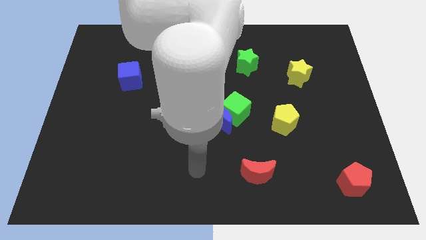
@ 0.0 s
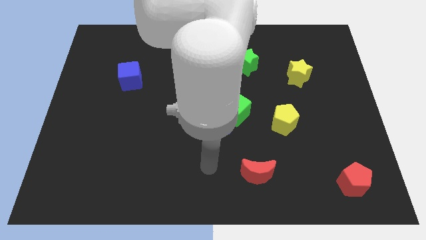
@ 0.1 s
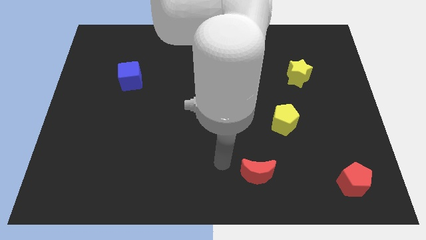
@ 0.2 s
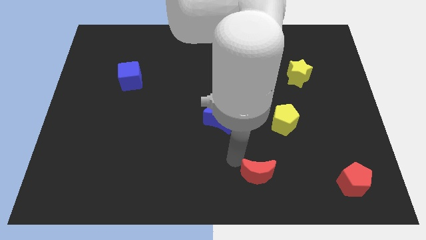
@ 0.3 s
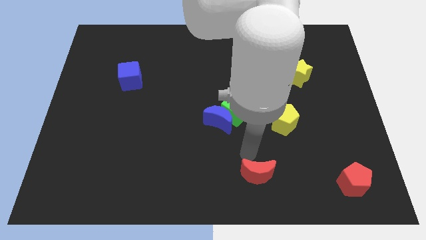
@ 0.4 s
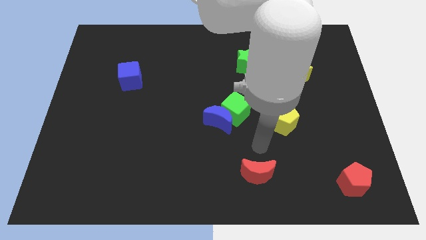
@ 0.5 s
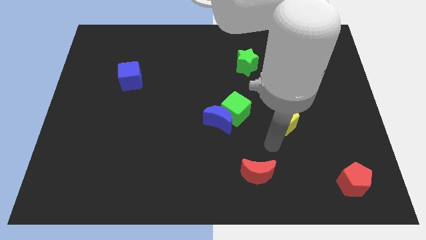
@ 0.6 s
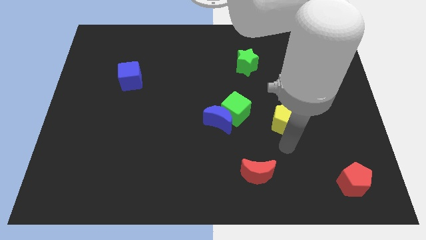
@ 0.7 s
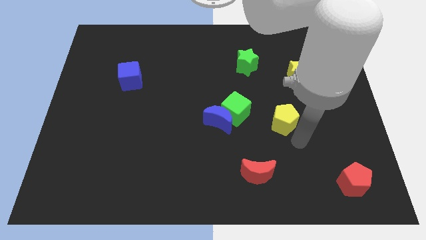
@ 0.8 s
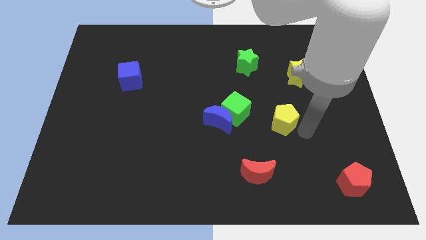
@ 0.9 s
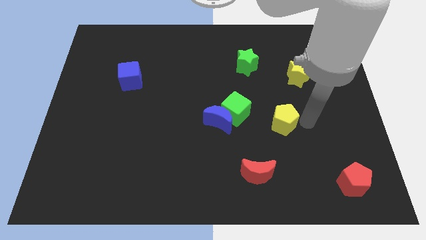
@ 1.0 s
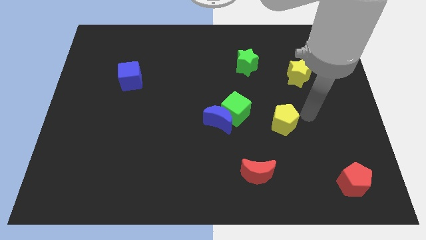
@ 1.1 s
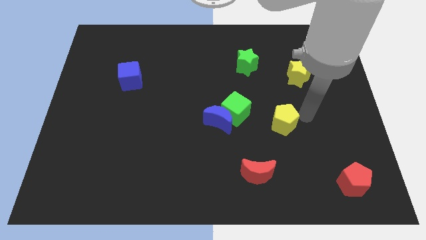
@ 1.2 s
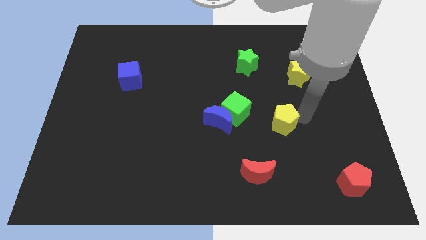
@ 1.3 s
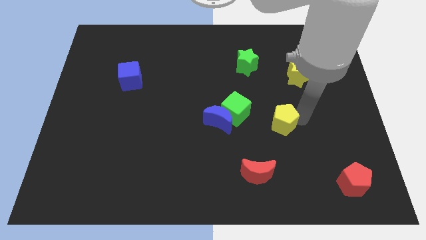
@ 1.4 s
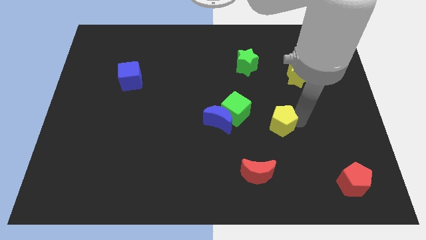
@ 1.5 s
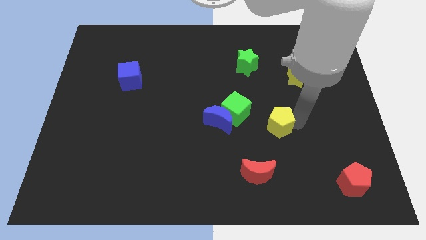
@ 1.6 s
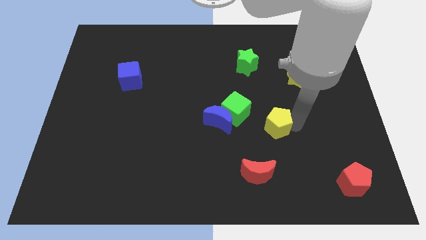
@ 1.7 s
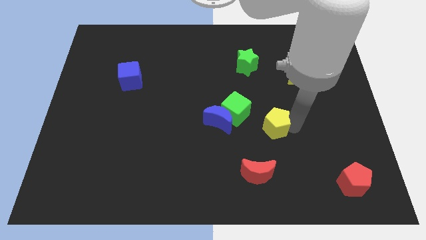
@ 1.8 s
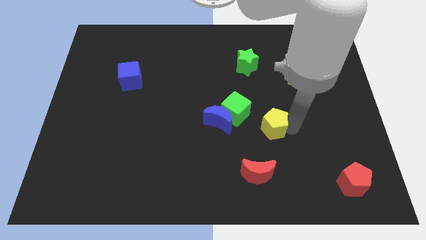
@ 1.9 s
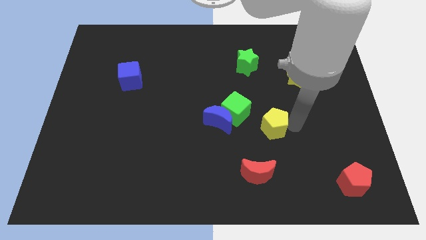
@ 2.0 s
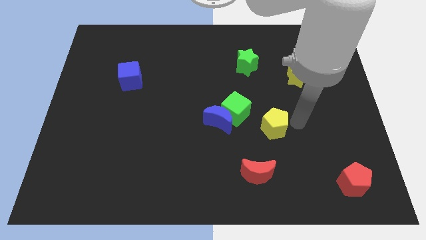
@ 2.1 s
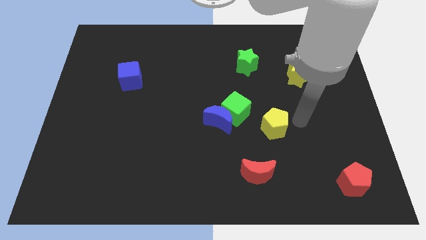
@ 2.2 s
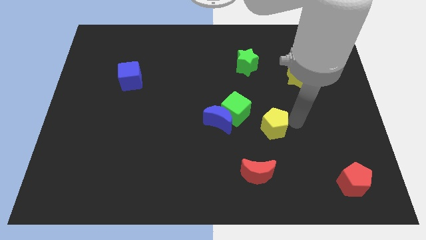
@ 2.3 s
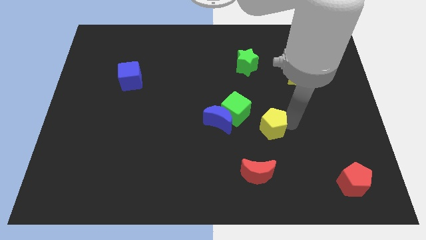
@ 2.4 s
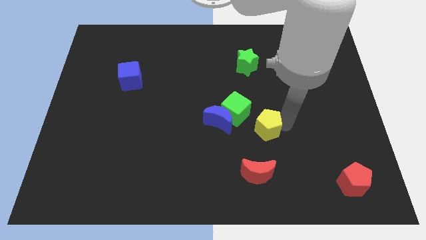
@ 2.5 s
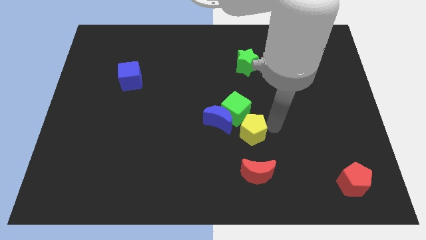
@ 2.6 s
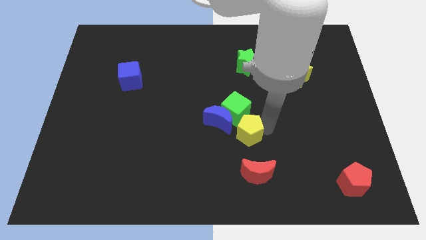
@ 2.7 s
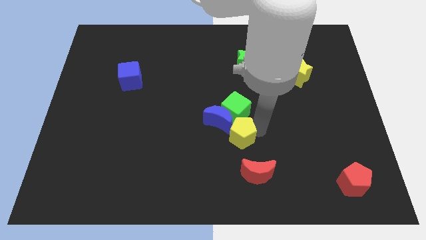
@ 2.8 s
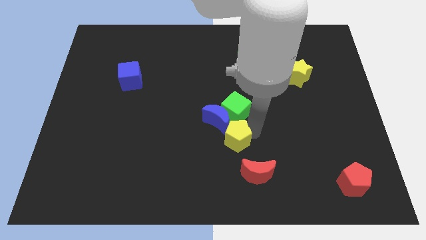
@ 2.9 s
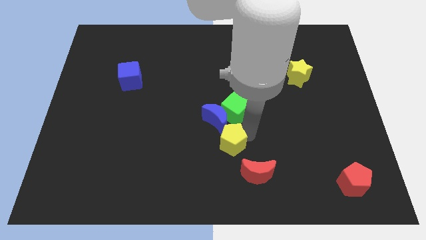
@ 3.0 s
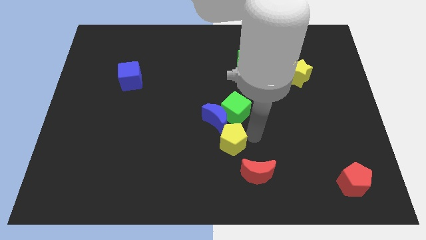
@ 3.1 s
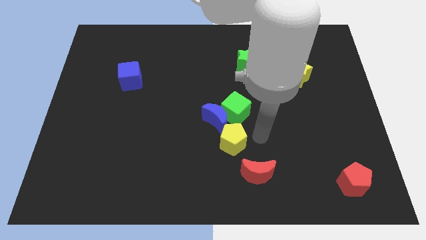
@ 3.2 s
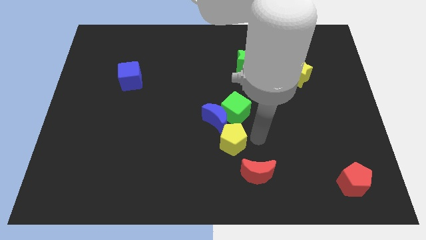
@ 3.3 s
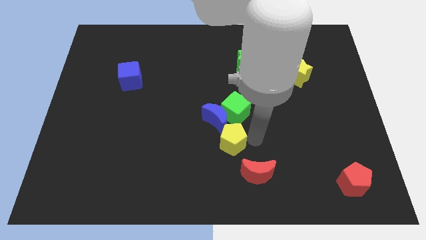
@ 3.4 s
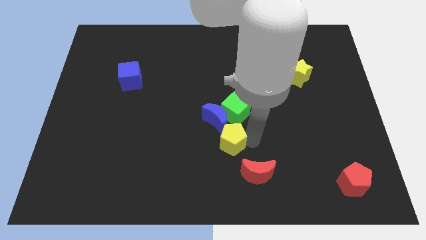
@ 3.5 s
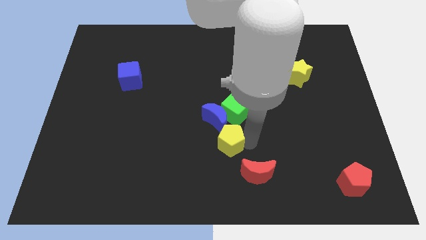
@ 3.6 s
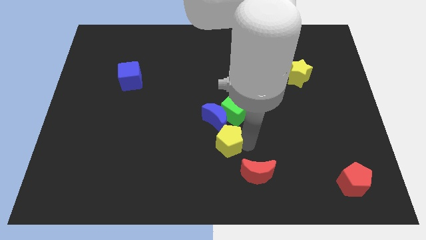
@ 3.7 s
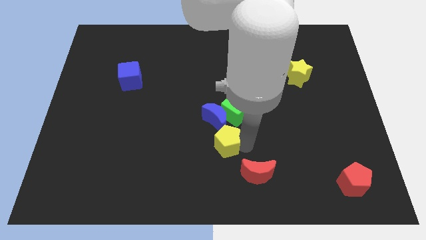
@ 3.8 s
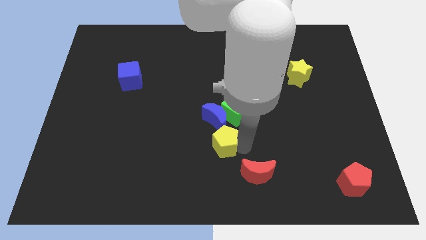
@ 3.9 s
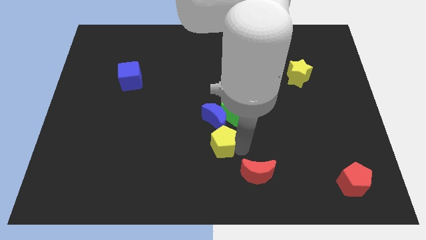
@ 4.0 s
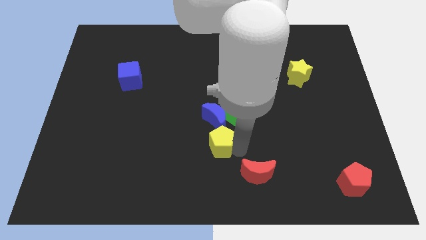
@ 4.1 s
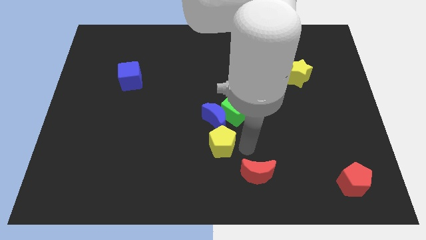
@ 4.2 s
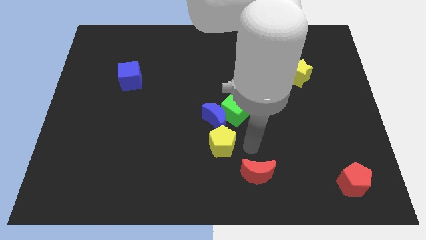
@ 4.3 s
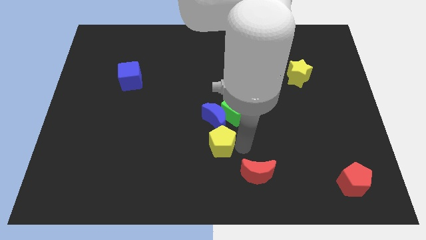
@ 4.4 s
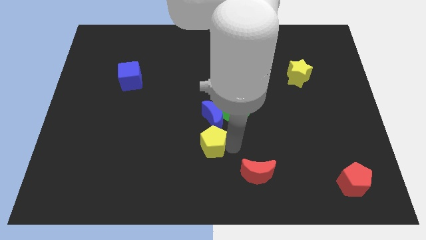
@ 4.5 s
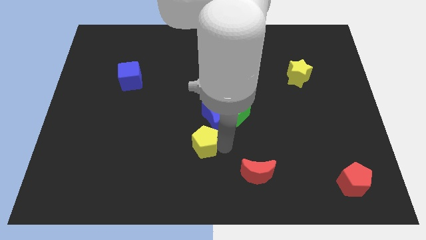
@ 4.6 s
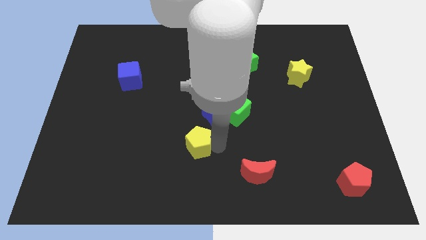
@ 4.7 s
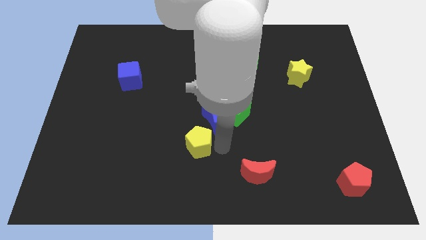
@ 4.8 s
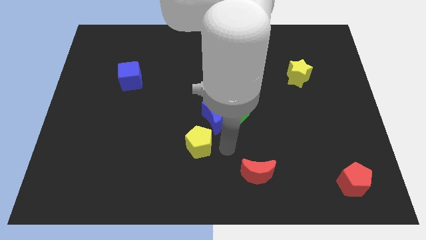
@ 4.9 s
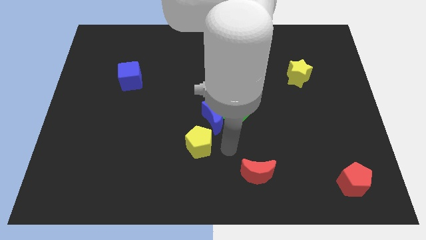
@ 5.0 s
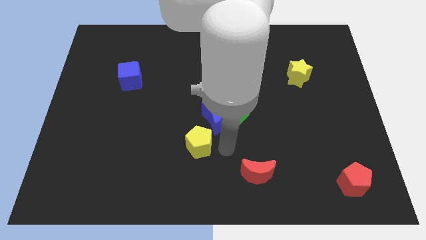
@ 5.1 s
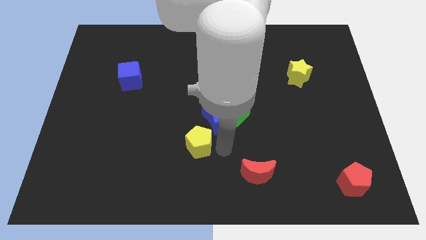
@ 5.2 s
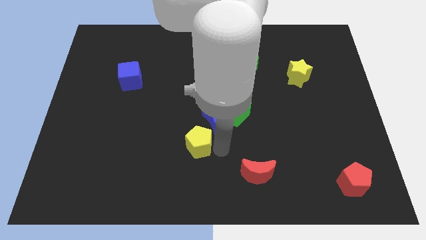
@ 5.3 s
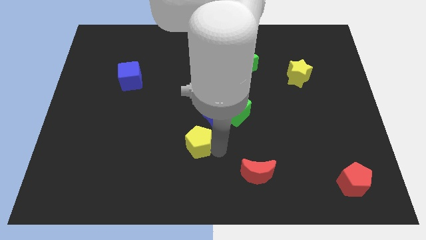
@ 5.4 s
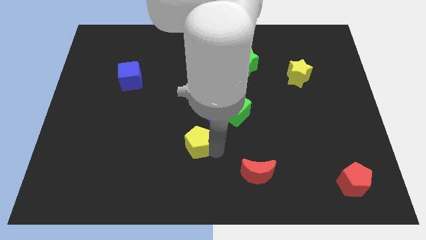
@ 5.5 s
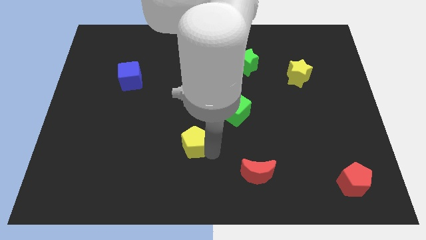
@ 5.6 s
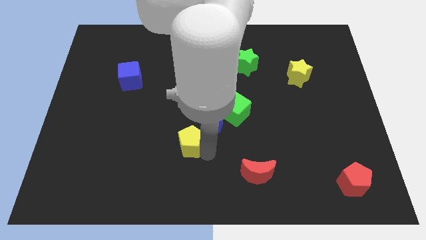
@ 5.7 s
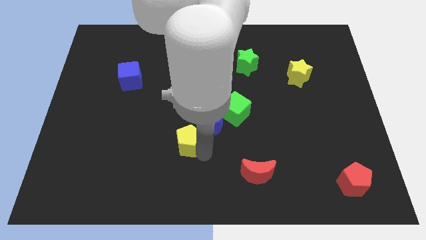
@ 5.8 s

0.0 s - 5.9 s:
slide the yellow pentagon to the left

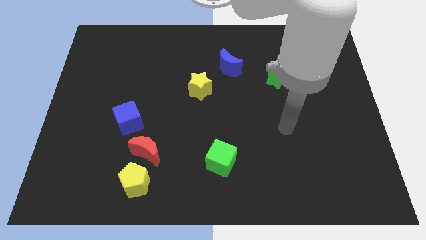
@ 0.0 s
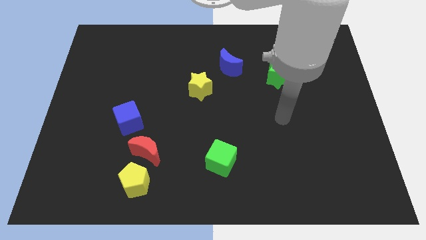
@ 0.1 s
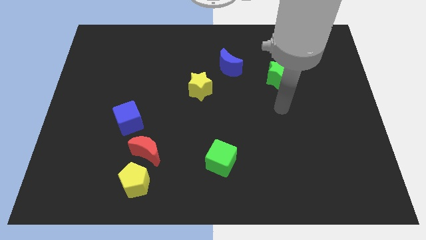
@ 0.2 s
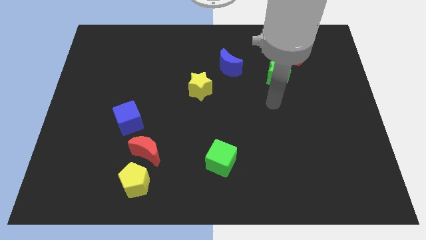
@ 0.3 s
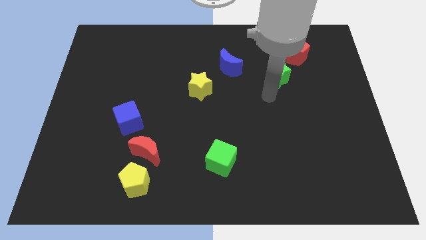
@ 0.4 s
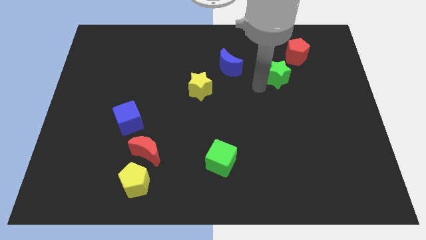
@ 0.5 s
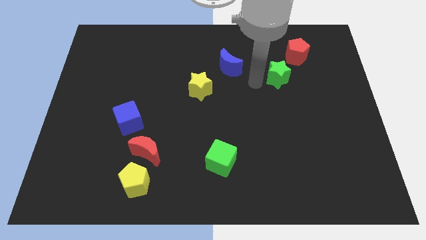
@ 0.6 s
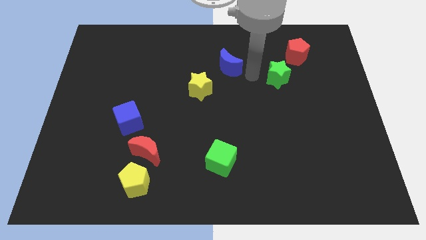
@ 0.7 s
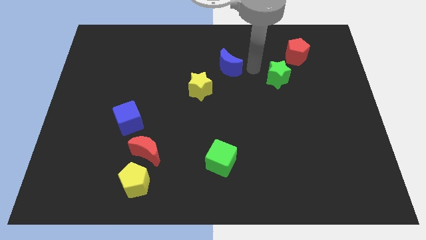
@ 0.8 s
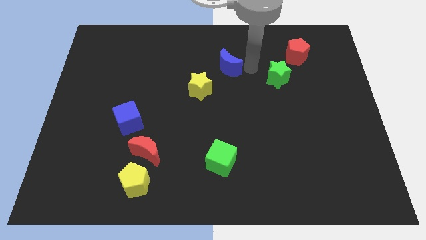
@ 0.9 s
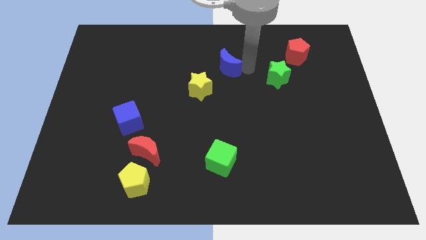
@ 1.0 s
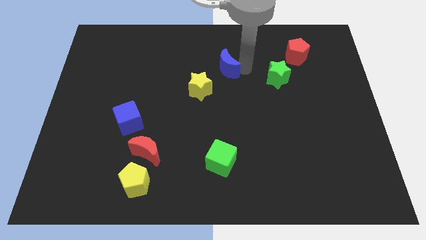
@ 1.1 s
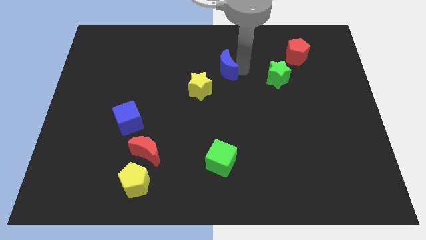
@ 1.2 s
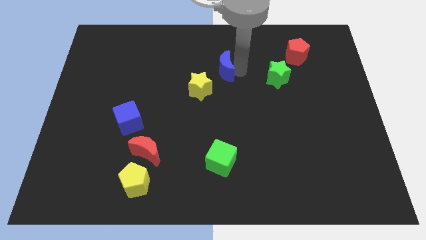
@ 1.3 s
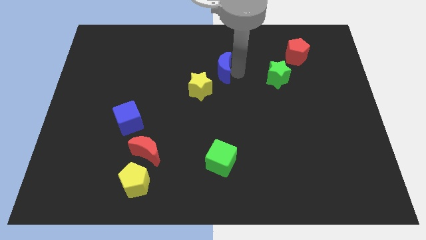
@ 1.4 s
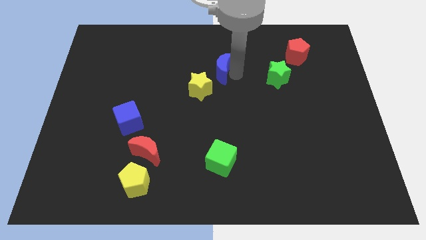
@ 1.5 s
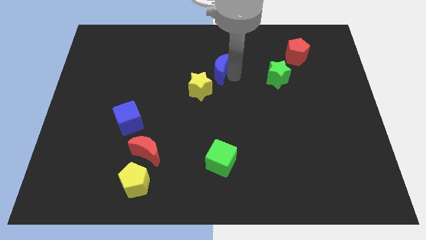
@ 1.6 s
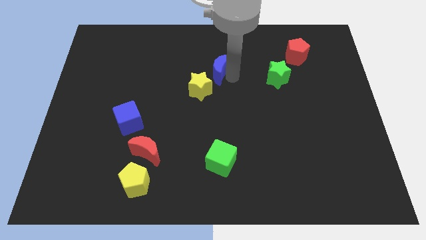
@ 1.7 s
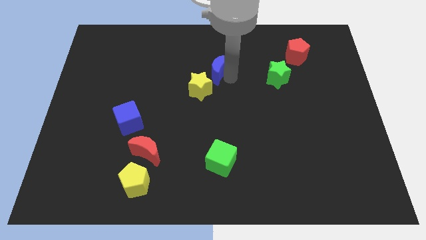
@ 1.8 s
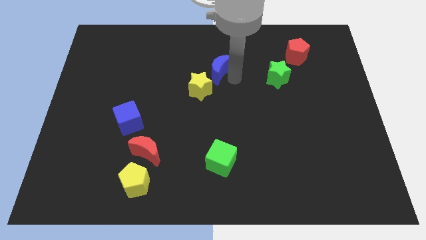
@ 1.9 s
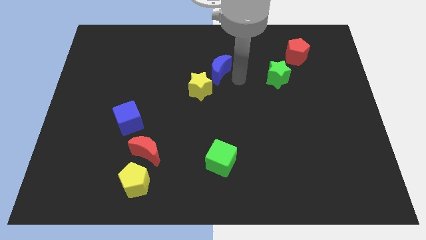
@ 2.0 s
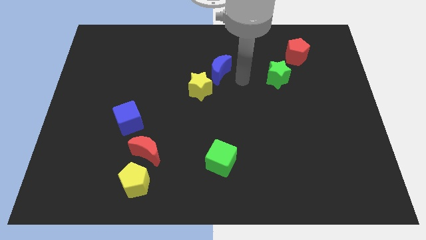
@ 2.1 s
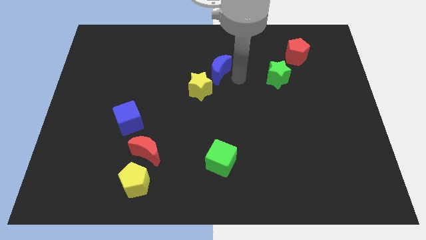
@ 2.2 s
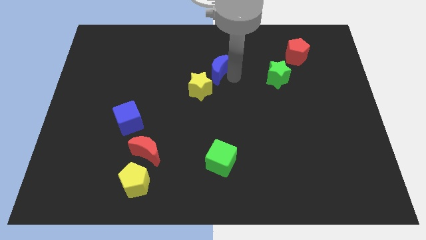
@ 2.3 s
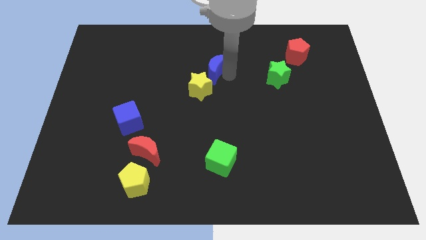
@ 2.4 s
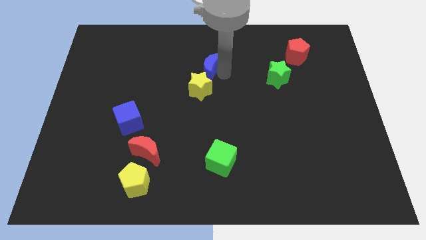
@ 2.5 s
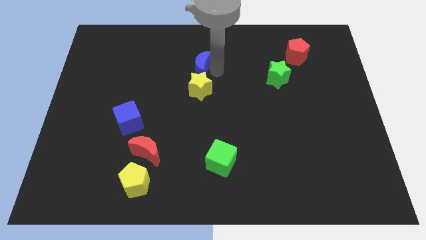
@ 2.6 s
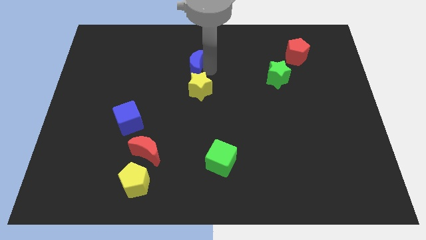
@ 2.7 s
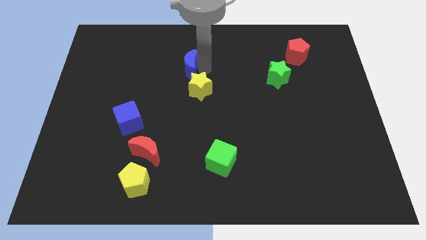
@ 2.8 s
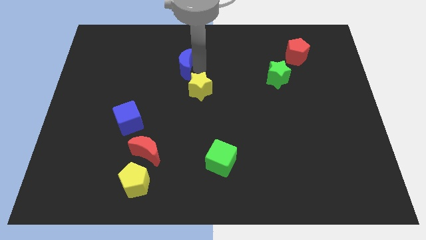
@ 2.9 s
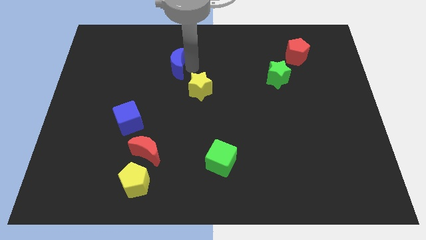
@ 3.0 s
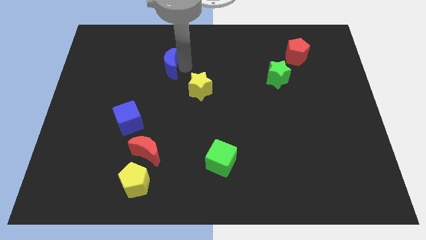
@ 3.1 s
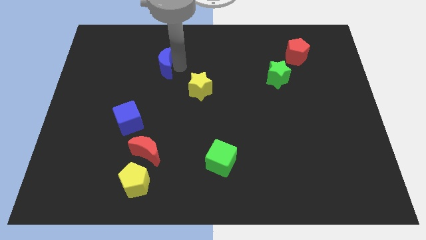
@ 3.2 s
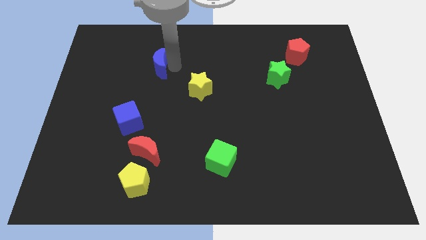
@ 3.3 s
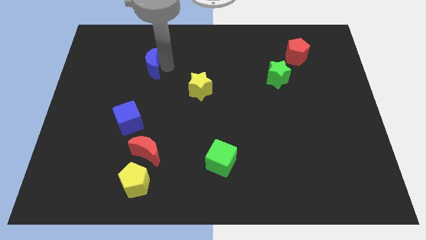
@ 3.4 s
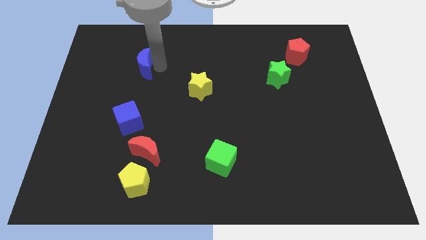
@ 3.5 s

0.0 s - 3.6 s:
move the blue moon left
